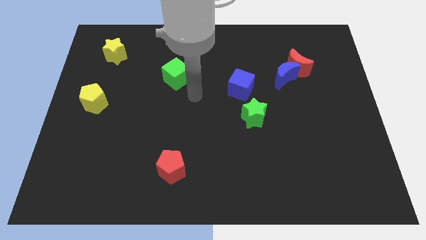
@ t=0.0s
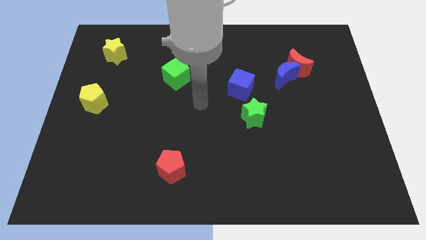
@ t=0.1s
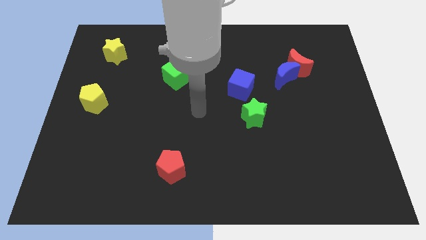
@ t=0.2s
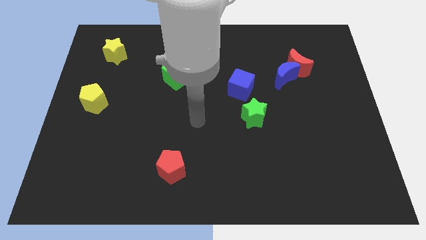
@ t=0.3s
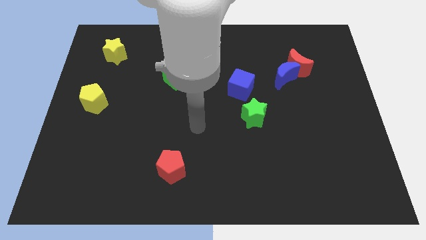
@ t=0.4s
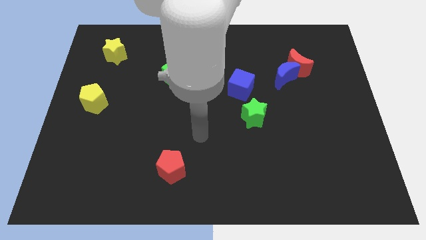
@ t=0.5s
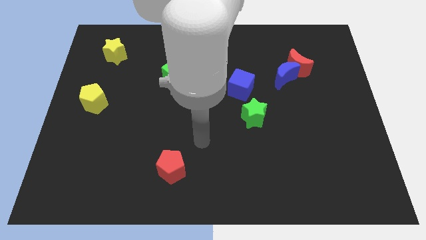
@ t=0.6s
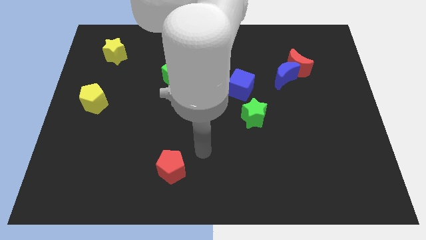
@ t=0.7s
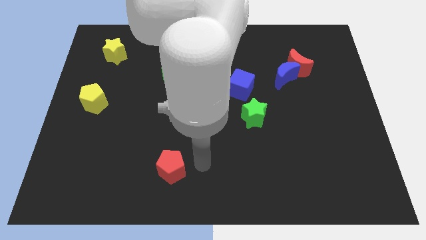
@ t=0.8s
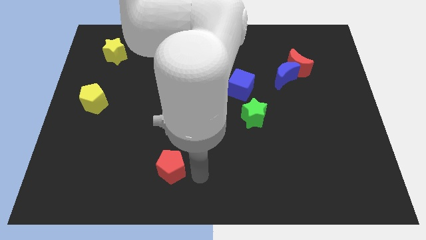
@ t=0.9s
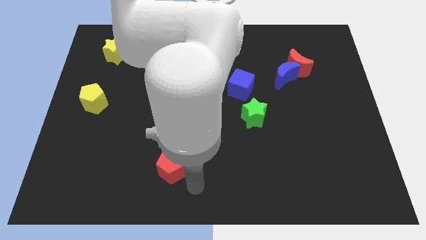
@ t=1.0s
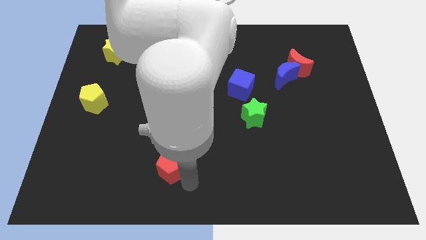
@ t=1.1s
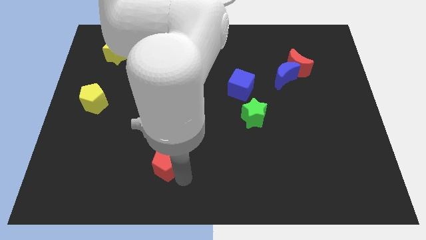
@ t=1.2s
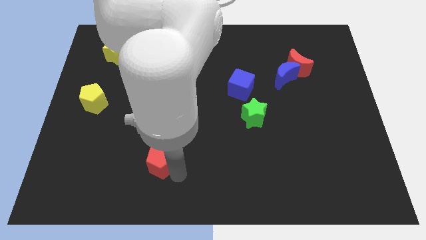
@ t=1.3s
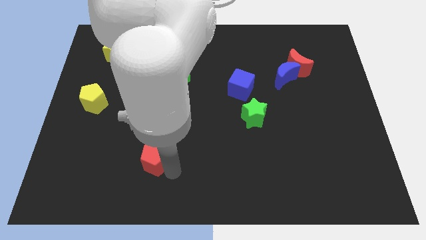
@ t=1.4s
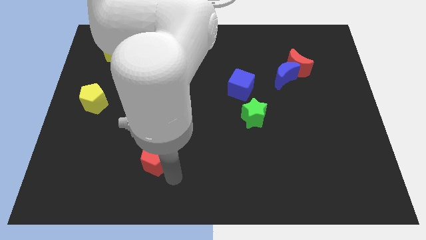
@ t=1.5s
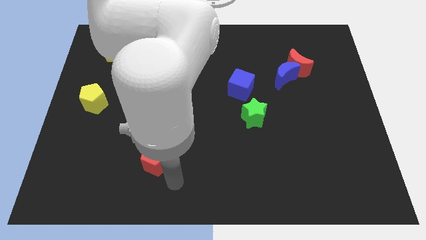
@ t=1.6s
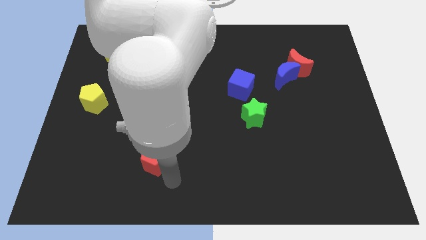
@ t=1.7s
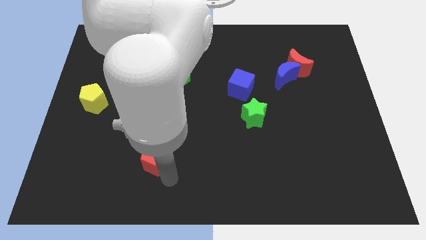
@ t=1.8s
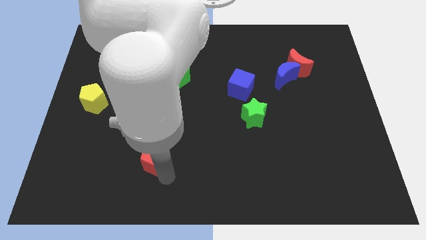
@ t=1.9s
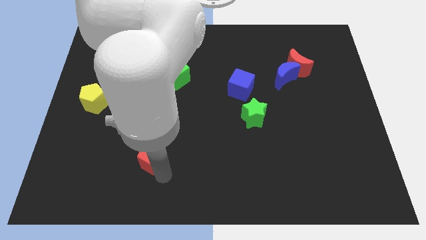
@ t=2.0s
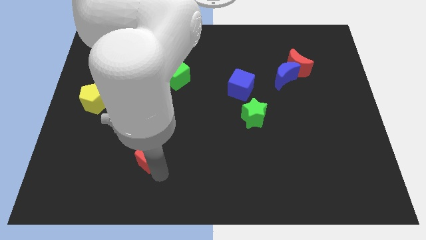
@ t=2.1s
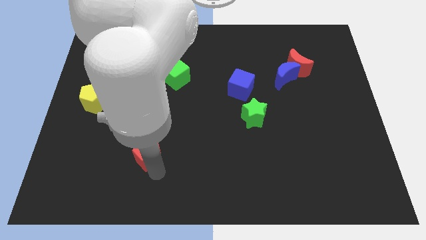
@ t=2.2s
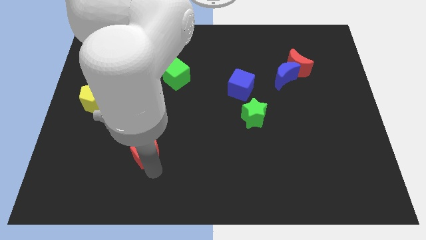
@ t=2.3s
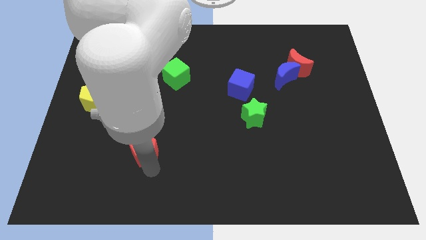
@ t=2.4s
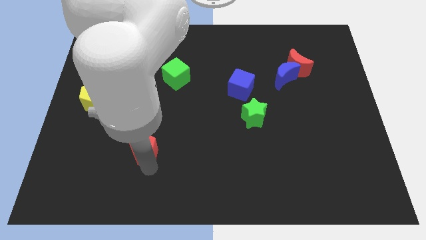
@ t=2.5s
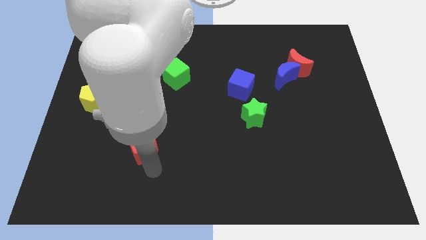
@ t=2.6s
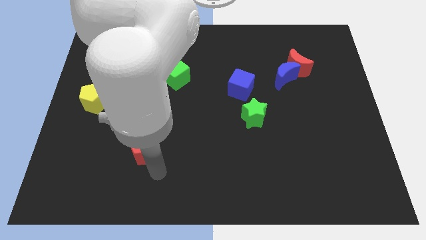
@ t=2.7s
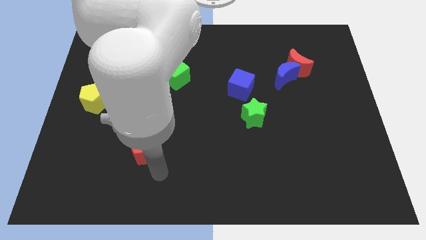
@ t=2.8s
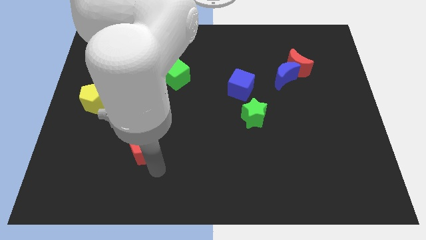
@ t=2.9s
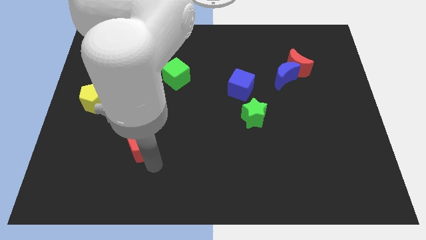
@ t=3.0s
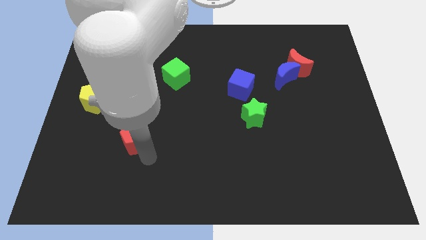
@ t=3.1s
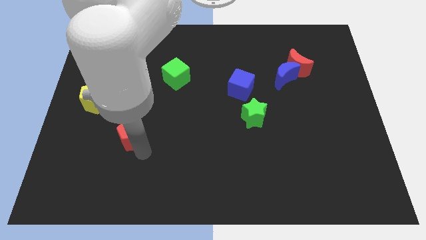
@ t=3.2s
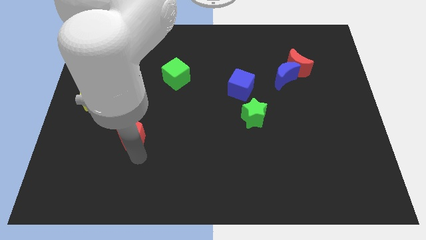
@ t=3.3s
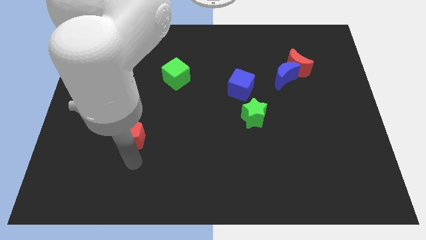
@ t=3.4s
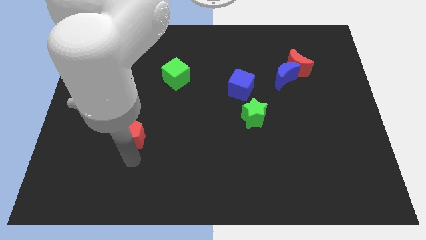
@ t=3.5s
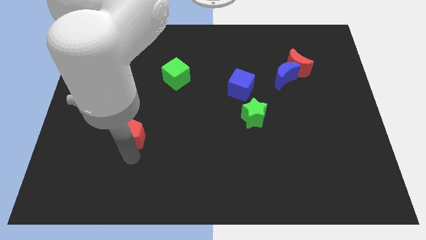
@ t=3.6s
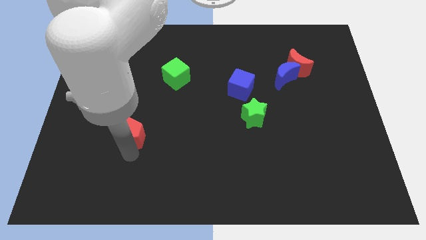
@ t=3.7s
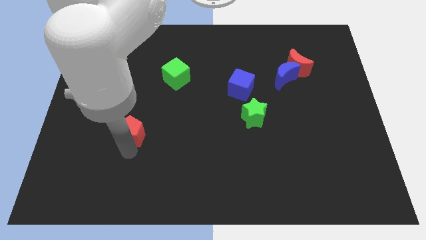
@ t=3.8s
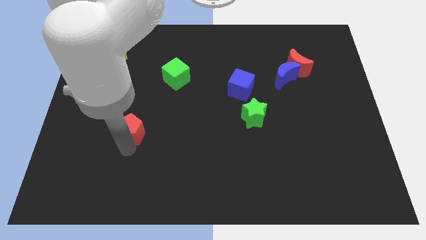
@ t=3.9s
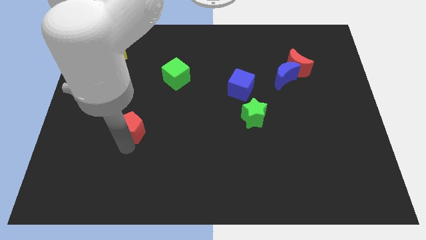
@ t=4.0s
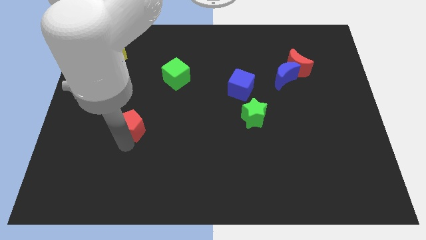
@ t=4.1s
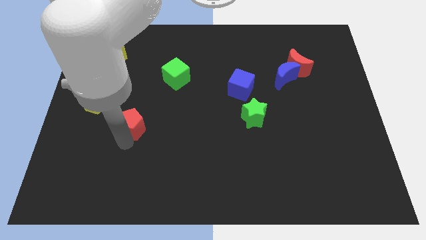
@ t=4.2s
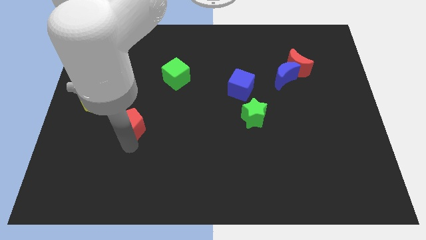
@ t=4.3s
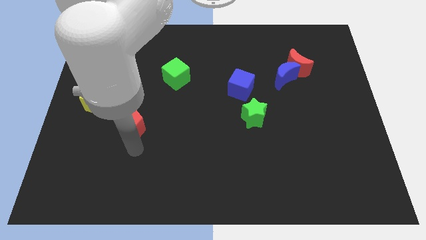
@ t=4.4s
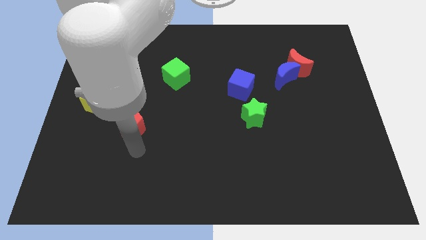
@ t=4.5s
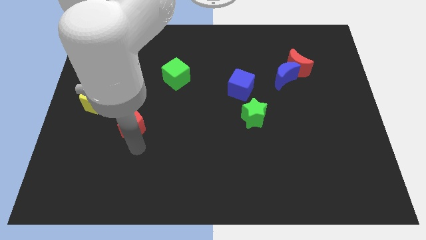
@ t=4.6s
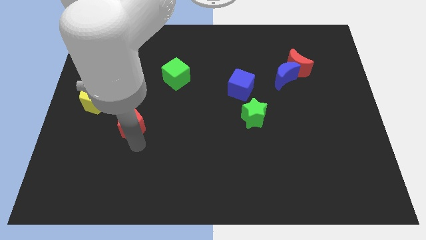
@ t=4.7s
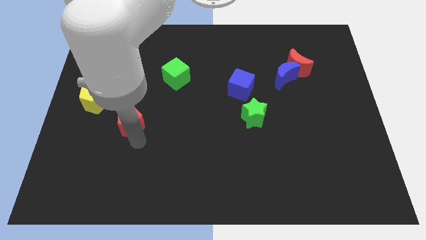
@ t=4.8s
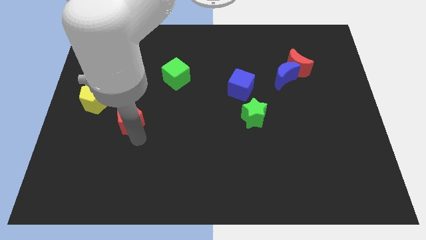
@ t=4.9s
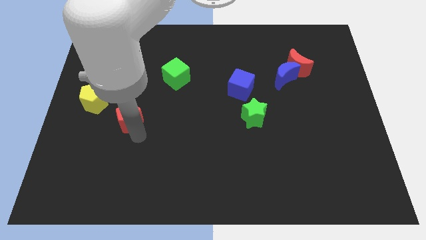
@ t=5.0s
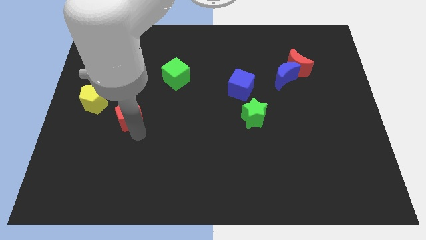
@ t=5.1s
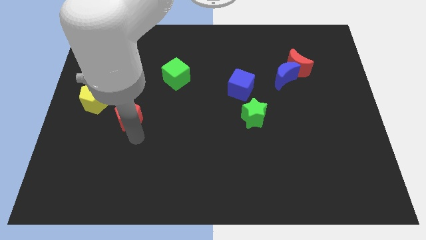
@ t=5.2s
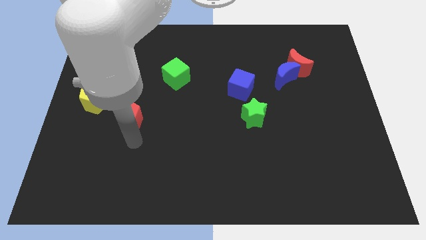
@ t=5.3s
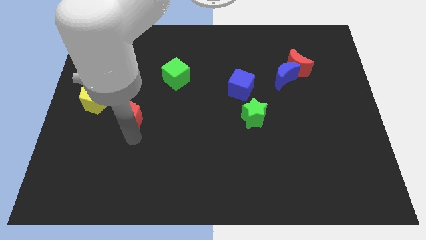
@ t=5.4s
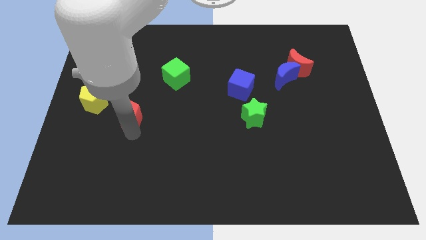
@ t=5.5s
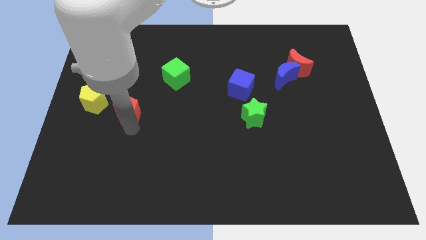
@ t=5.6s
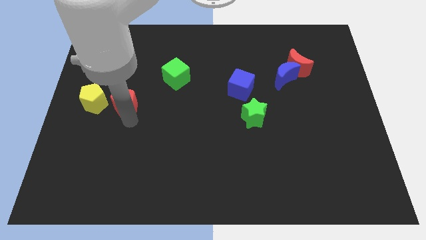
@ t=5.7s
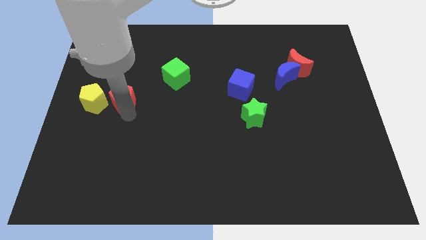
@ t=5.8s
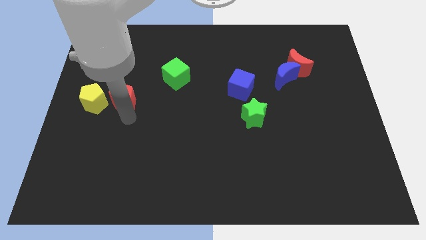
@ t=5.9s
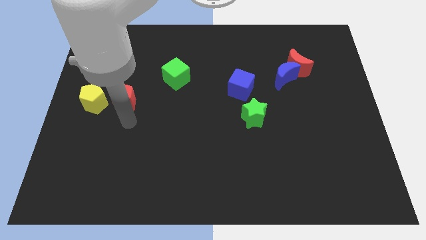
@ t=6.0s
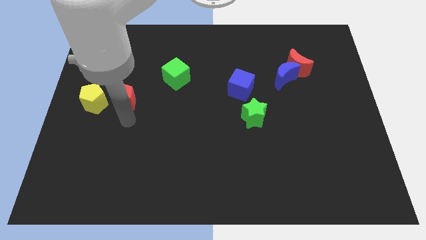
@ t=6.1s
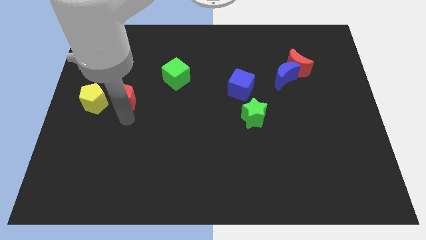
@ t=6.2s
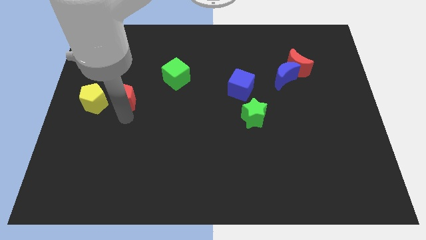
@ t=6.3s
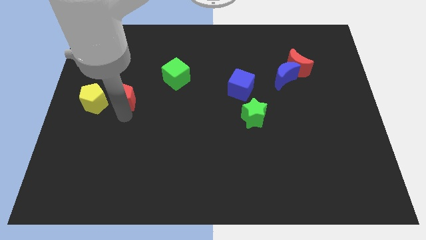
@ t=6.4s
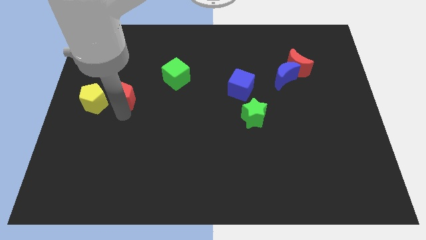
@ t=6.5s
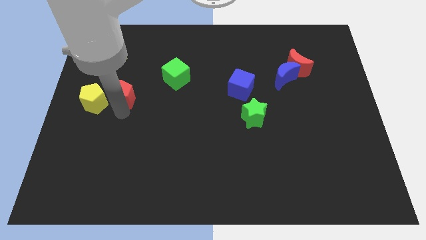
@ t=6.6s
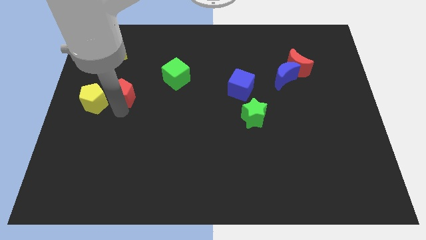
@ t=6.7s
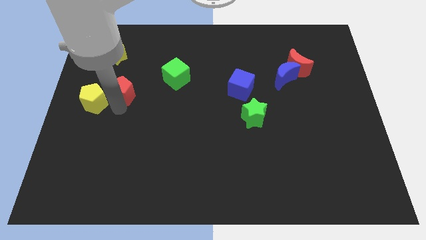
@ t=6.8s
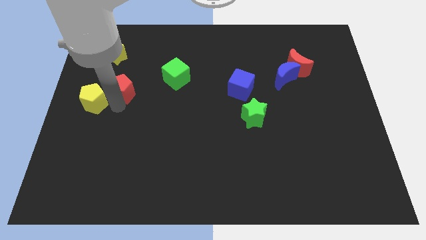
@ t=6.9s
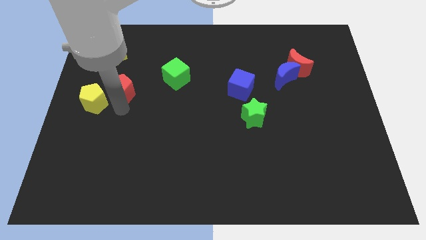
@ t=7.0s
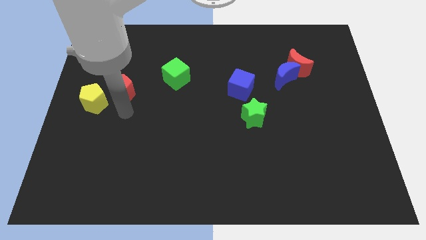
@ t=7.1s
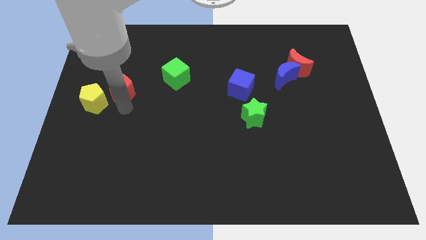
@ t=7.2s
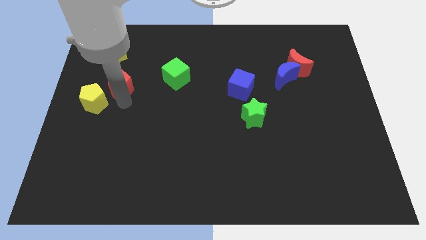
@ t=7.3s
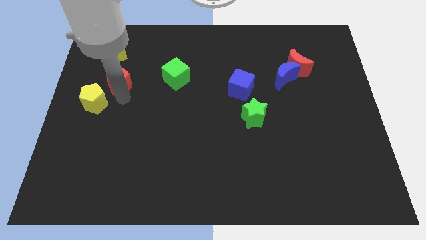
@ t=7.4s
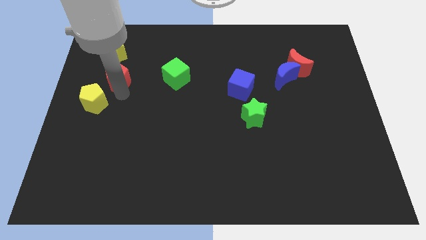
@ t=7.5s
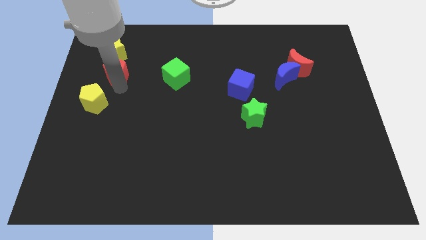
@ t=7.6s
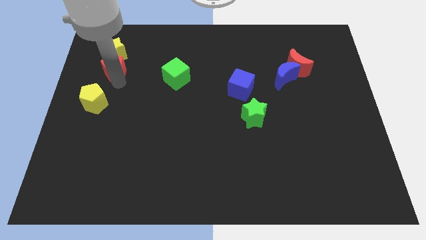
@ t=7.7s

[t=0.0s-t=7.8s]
put the red pentagon to the yellow star

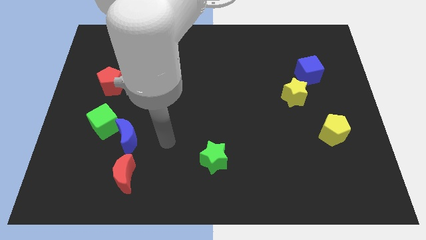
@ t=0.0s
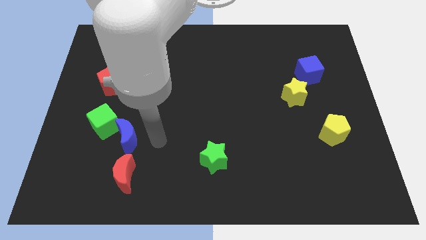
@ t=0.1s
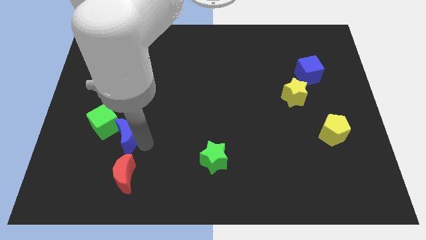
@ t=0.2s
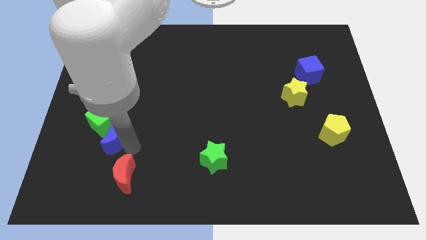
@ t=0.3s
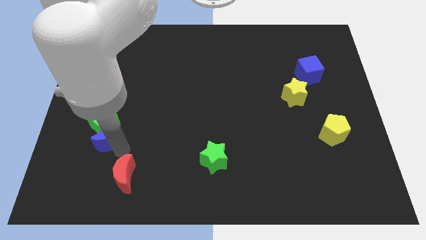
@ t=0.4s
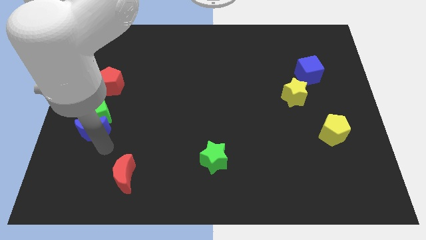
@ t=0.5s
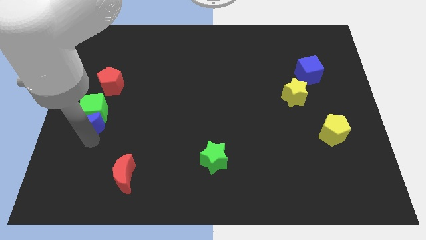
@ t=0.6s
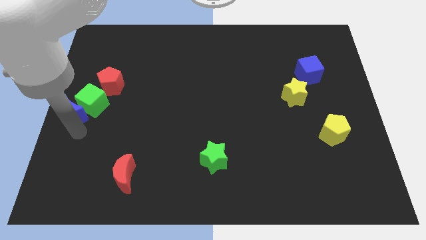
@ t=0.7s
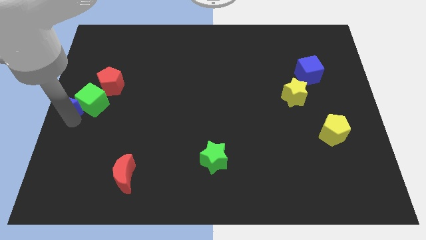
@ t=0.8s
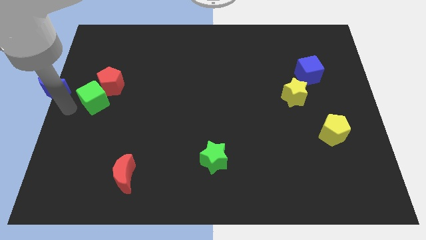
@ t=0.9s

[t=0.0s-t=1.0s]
move the green cube close to the red pentagon
